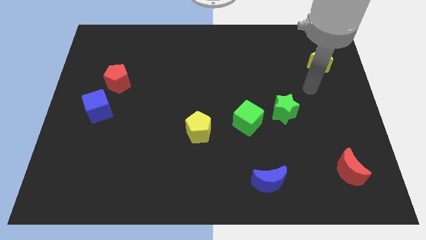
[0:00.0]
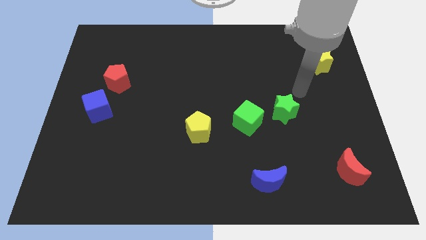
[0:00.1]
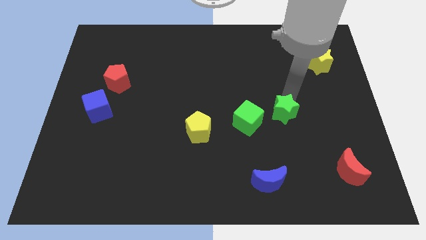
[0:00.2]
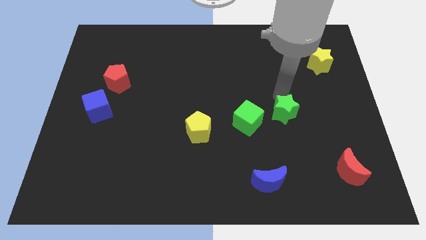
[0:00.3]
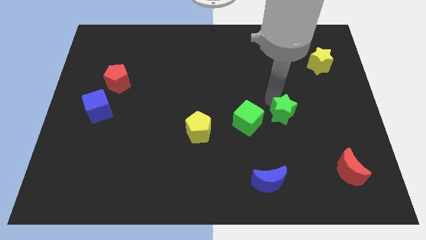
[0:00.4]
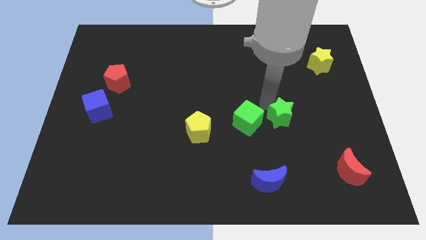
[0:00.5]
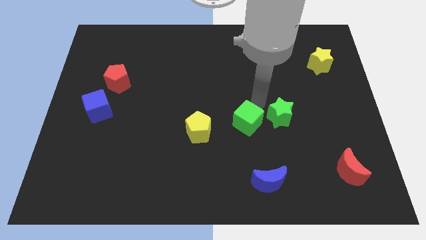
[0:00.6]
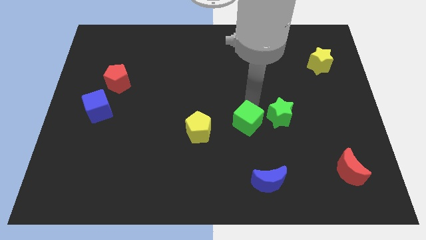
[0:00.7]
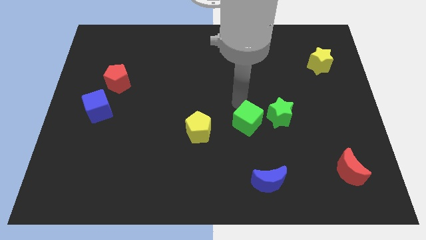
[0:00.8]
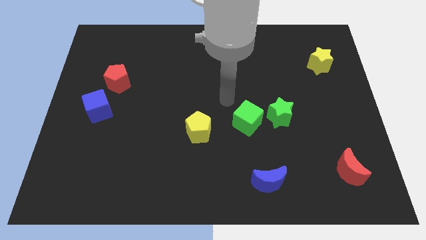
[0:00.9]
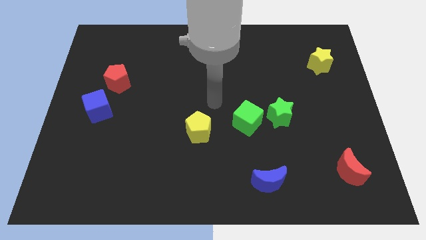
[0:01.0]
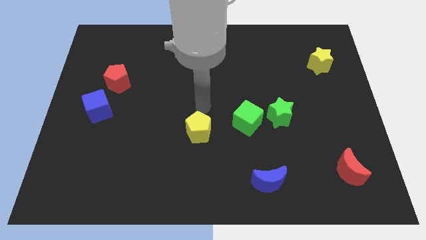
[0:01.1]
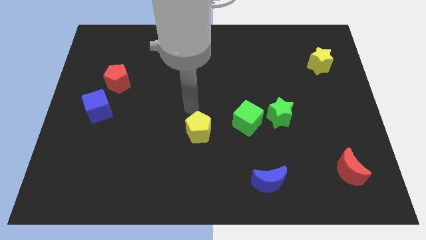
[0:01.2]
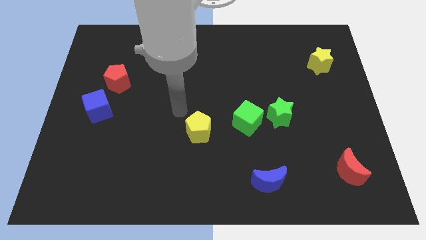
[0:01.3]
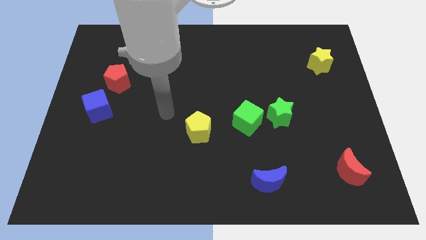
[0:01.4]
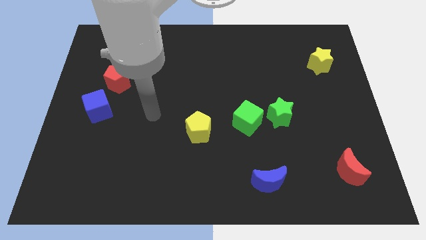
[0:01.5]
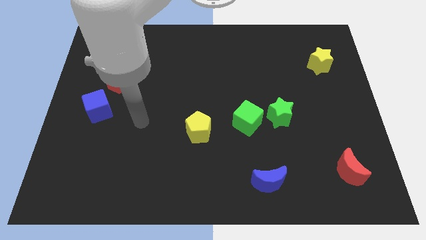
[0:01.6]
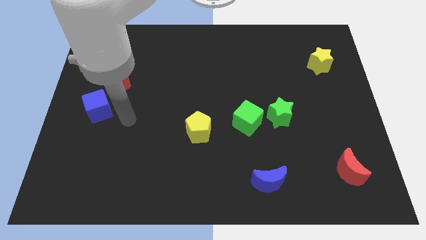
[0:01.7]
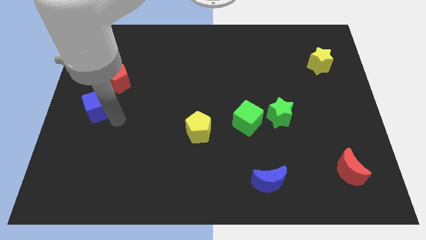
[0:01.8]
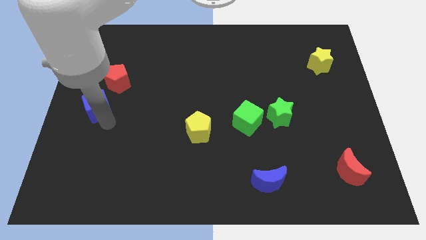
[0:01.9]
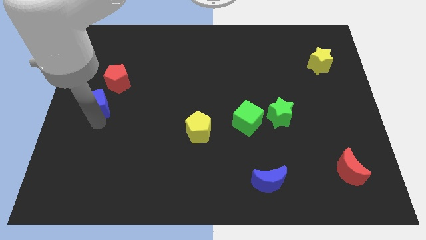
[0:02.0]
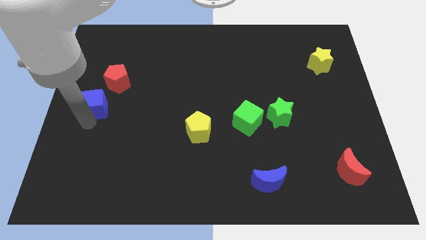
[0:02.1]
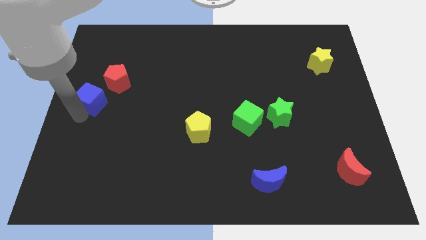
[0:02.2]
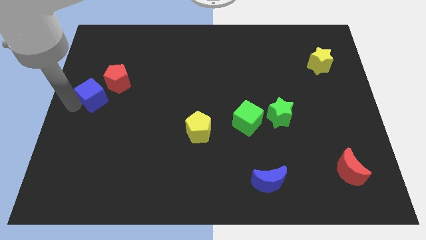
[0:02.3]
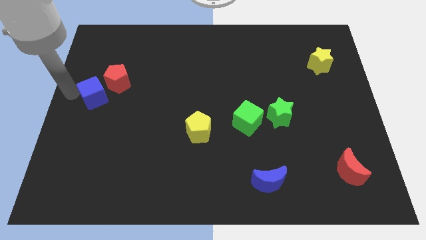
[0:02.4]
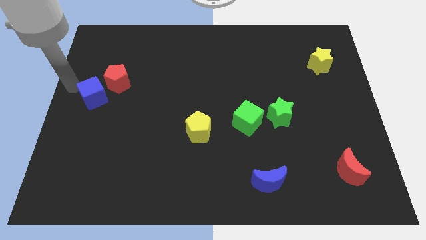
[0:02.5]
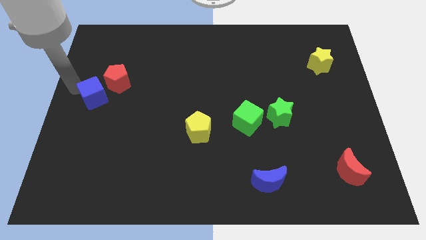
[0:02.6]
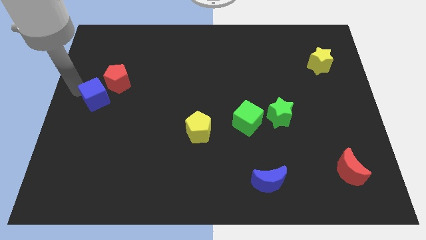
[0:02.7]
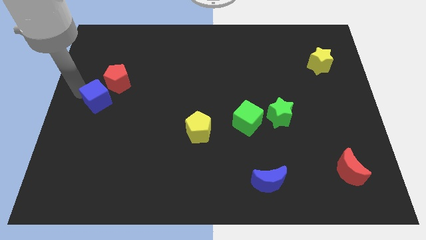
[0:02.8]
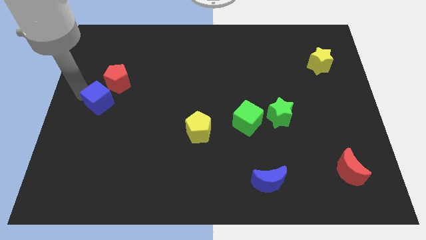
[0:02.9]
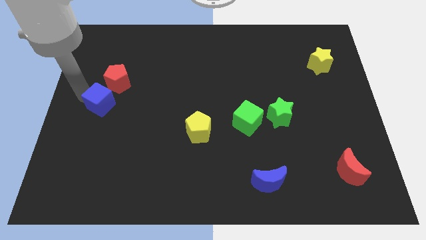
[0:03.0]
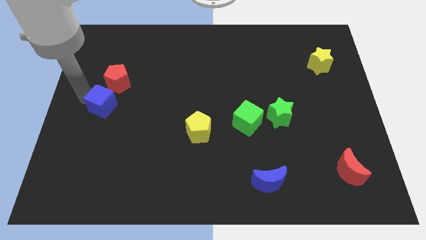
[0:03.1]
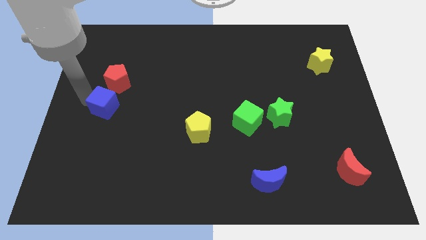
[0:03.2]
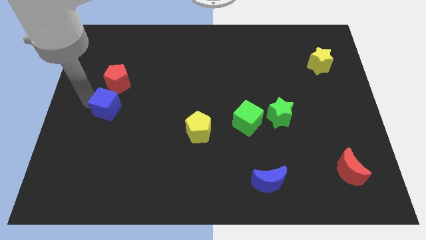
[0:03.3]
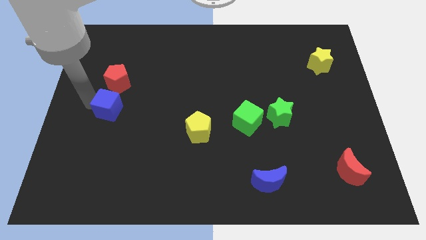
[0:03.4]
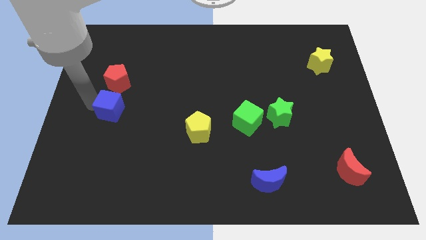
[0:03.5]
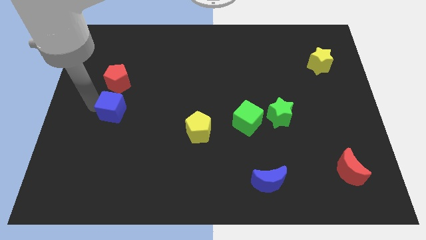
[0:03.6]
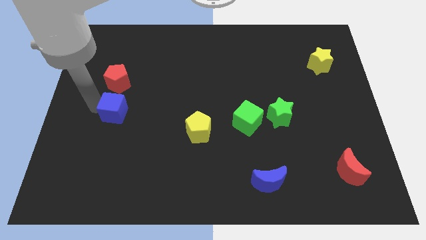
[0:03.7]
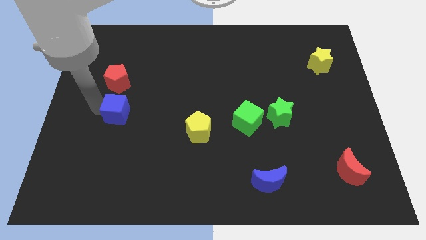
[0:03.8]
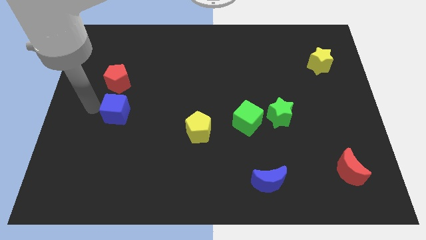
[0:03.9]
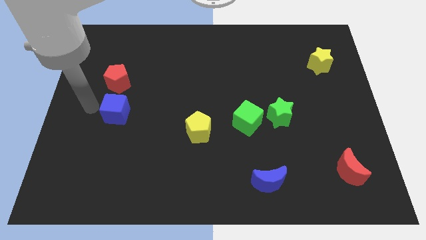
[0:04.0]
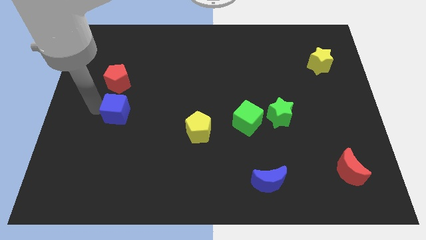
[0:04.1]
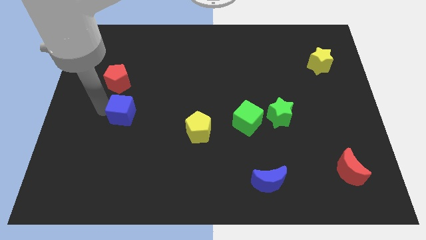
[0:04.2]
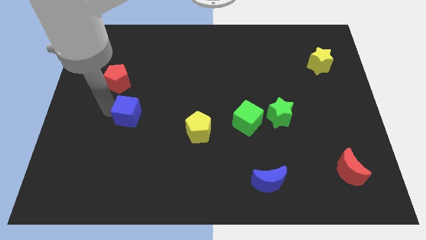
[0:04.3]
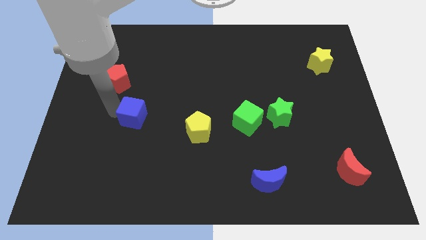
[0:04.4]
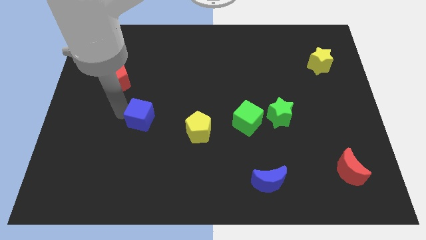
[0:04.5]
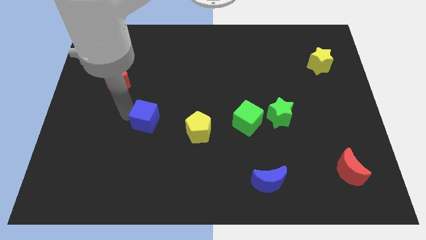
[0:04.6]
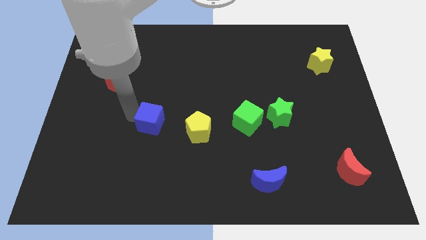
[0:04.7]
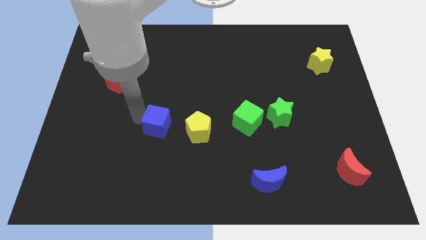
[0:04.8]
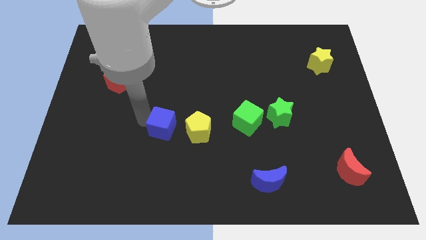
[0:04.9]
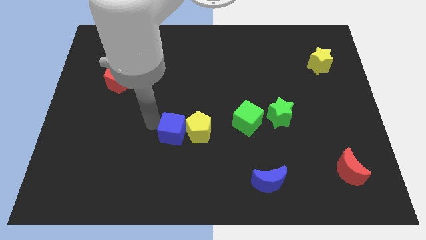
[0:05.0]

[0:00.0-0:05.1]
put the blue cube to the yellow pentagon

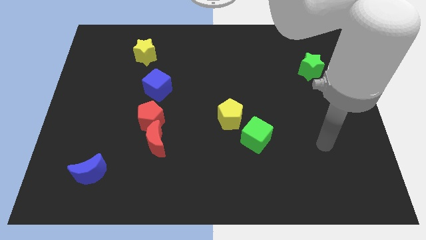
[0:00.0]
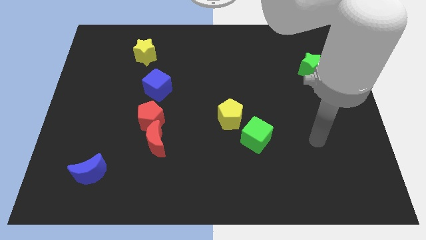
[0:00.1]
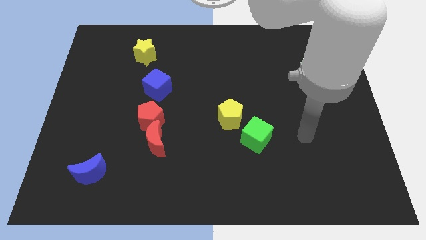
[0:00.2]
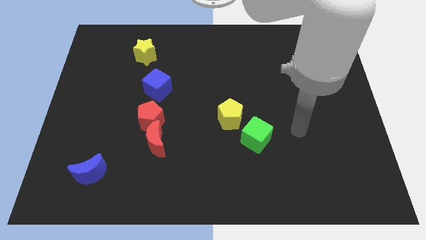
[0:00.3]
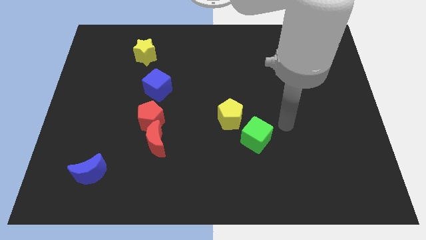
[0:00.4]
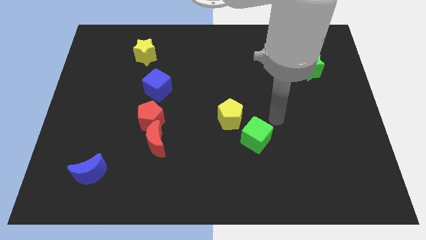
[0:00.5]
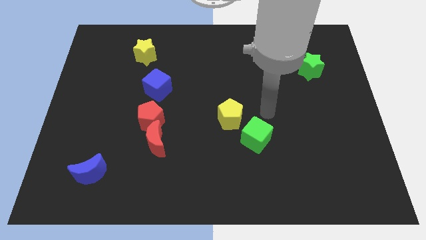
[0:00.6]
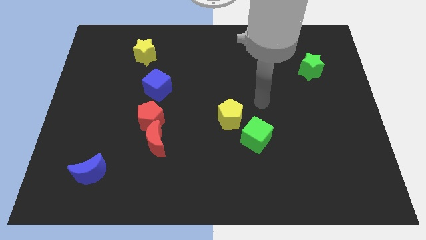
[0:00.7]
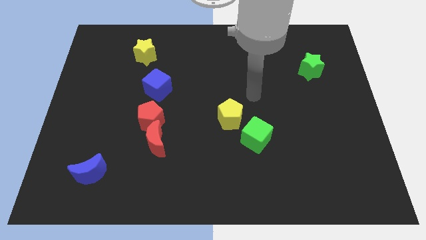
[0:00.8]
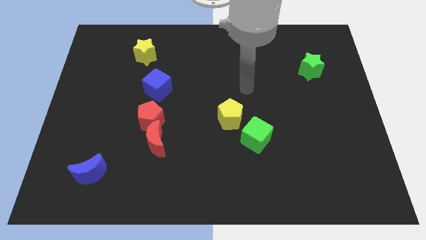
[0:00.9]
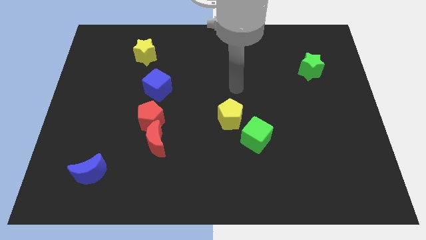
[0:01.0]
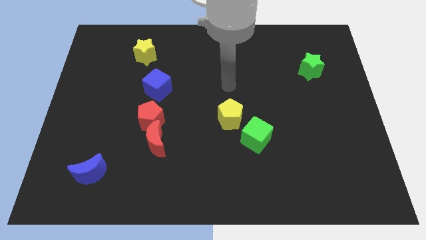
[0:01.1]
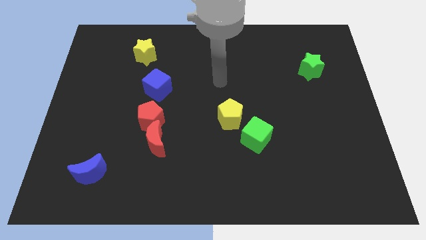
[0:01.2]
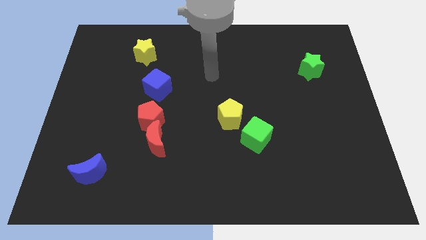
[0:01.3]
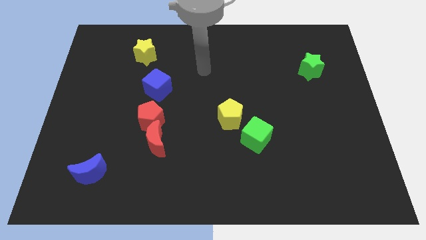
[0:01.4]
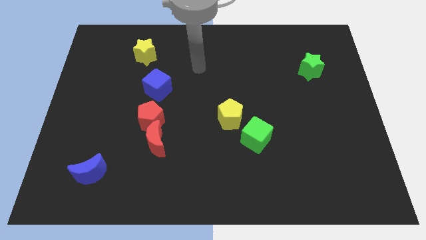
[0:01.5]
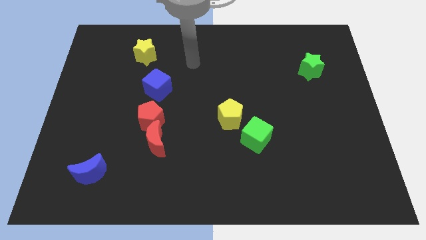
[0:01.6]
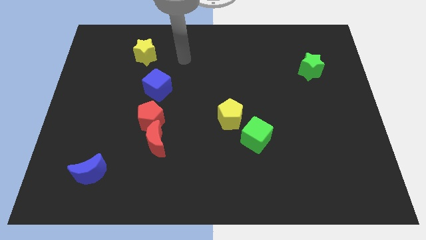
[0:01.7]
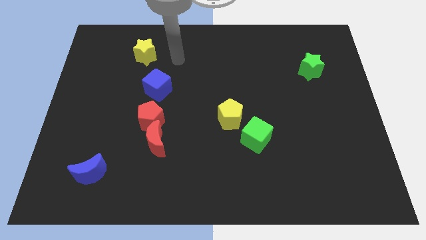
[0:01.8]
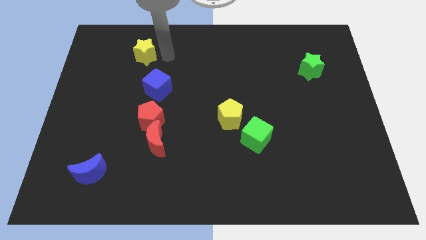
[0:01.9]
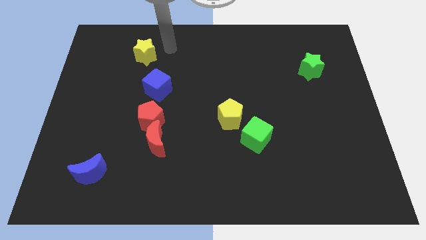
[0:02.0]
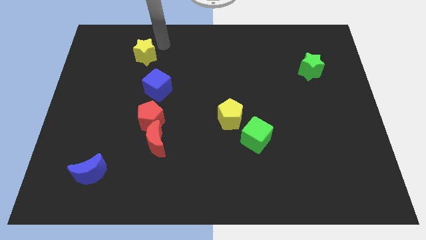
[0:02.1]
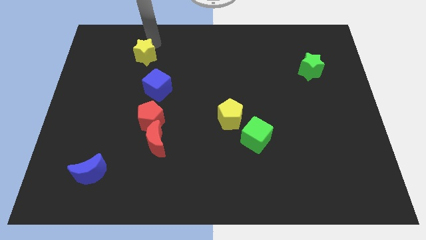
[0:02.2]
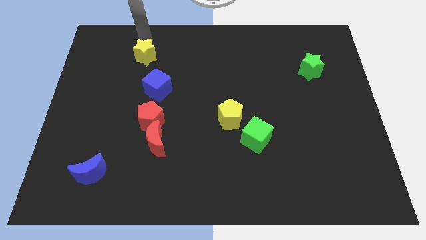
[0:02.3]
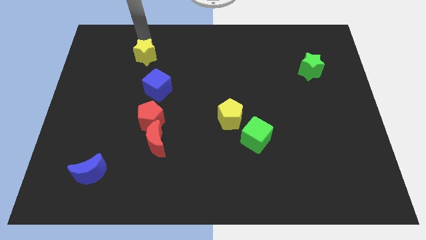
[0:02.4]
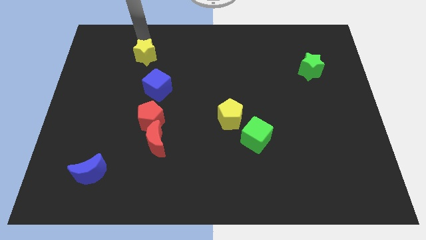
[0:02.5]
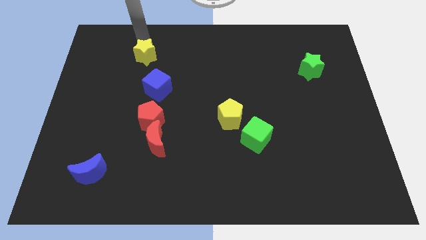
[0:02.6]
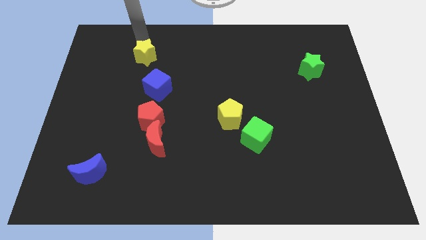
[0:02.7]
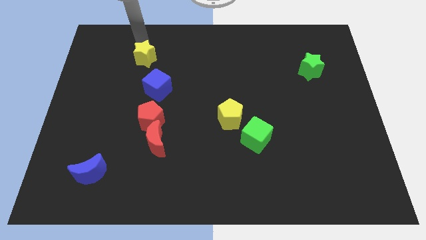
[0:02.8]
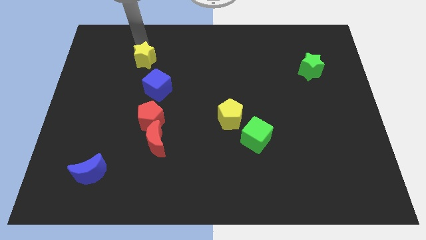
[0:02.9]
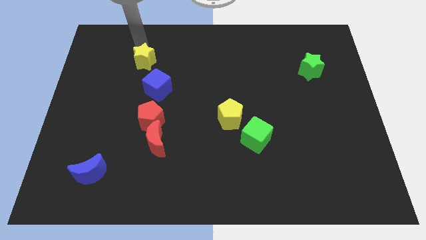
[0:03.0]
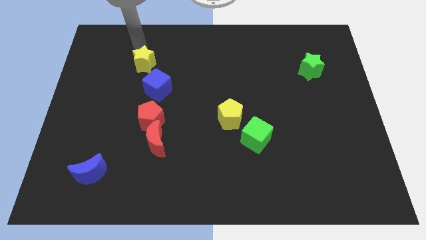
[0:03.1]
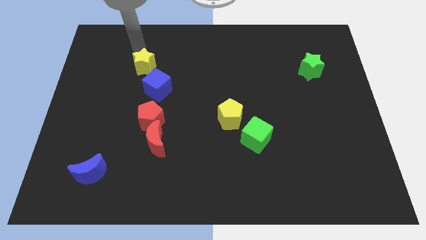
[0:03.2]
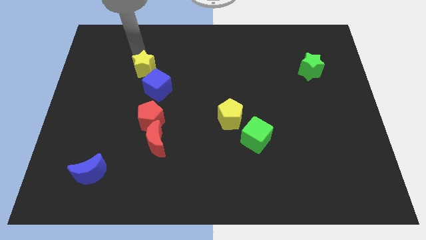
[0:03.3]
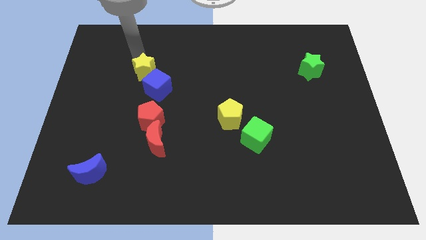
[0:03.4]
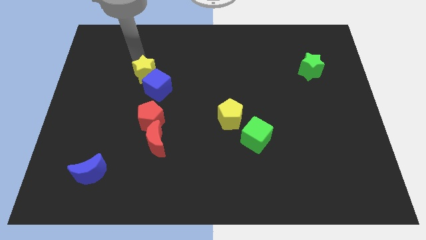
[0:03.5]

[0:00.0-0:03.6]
push the yellow star to the blue cube
